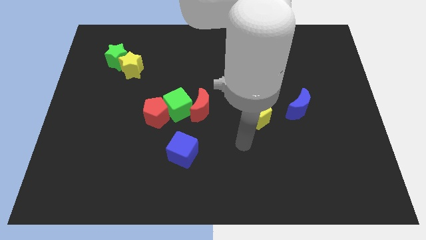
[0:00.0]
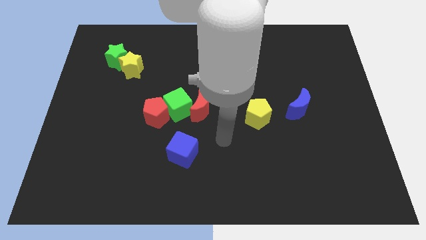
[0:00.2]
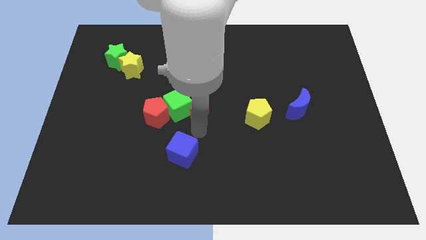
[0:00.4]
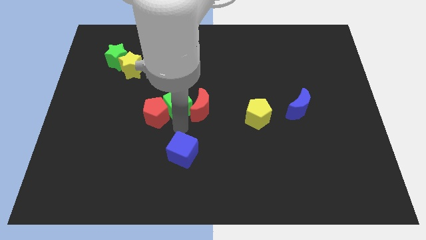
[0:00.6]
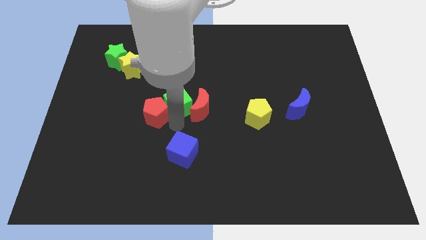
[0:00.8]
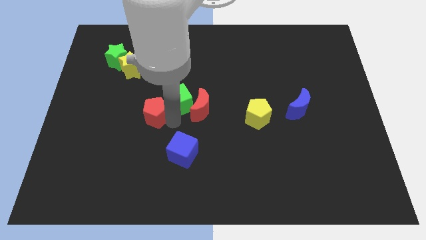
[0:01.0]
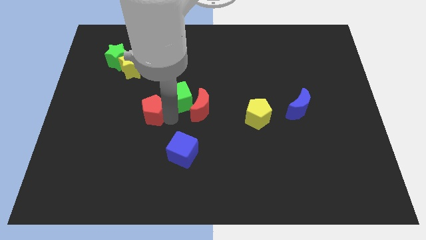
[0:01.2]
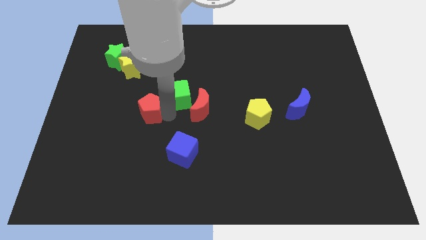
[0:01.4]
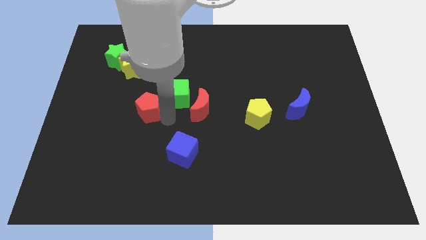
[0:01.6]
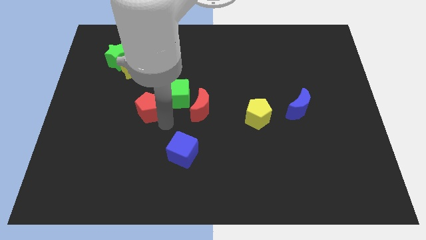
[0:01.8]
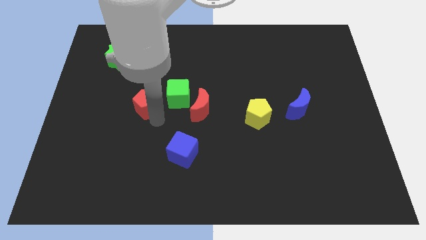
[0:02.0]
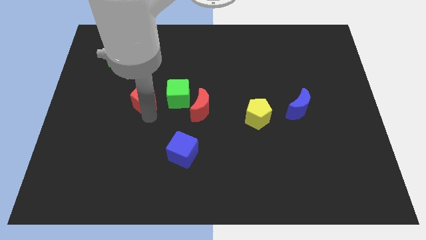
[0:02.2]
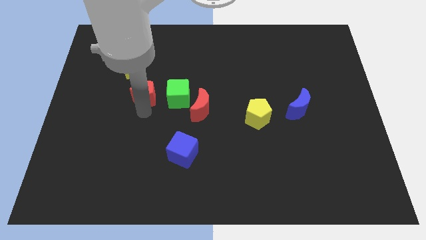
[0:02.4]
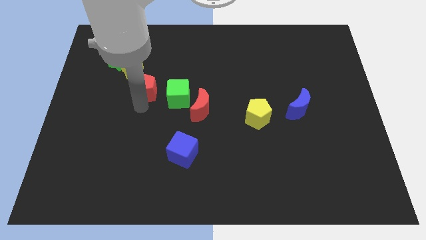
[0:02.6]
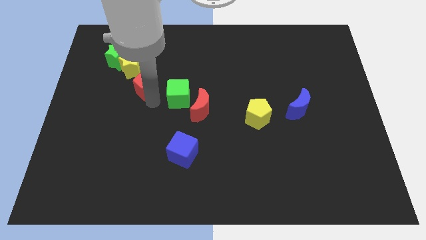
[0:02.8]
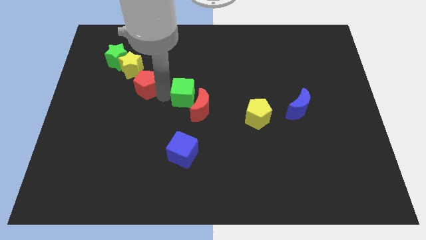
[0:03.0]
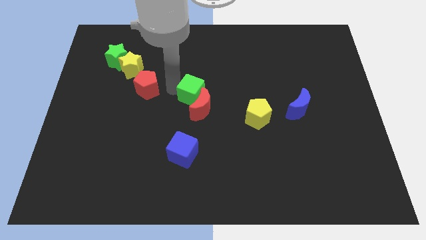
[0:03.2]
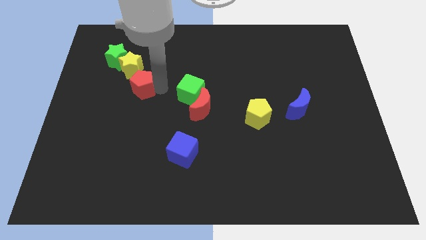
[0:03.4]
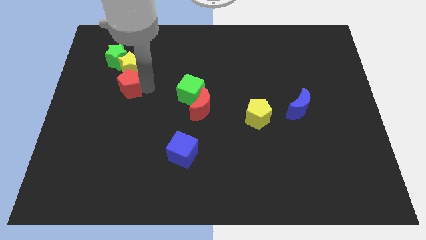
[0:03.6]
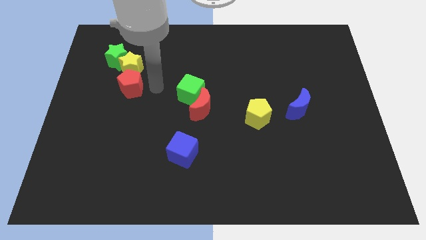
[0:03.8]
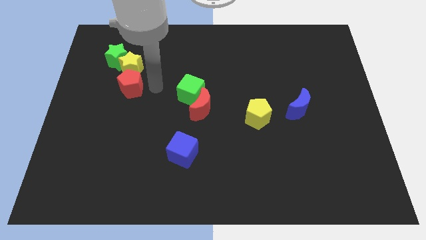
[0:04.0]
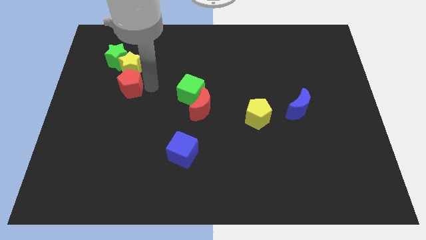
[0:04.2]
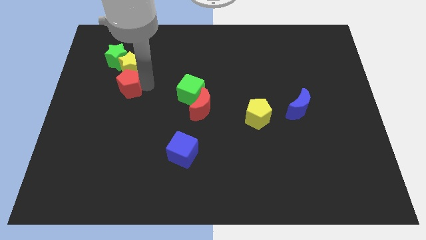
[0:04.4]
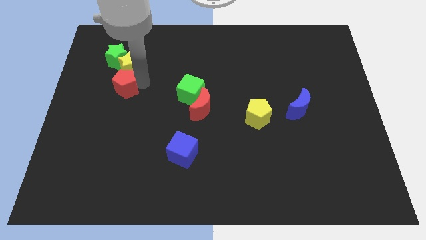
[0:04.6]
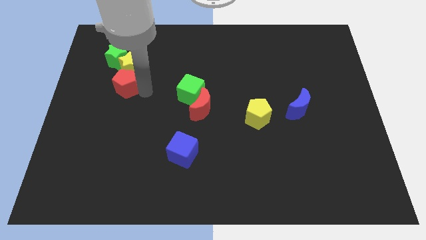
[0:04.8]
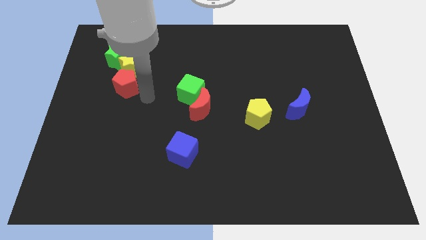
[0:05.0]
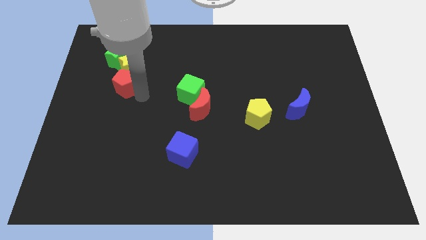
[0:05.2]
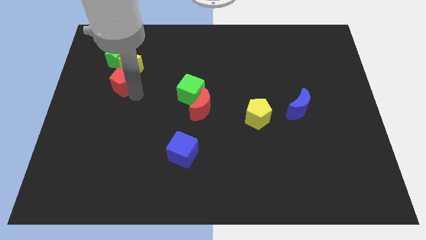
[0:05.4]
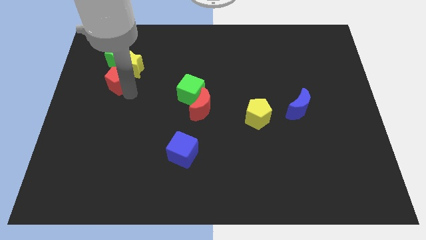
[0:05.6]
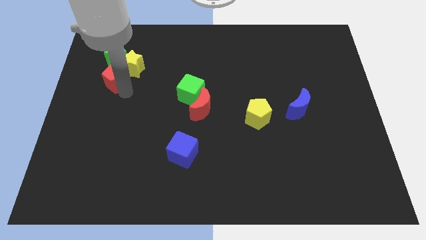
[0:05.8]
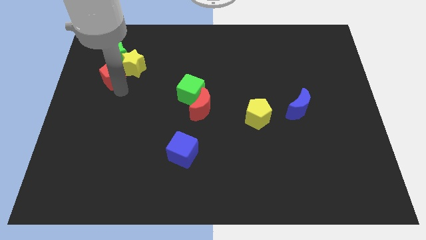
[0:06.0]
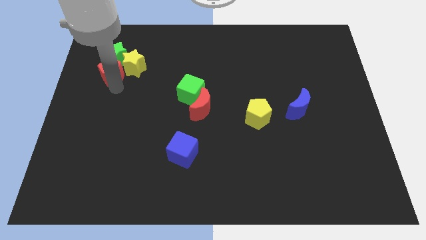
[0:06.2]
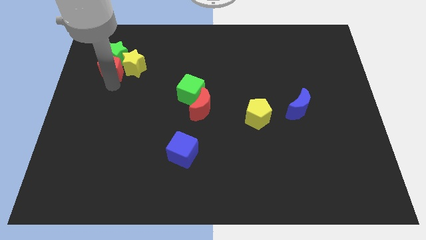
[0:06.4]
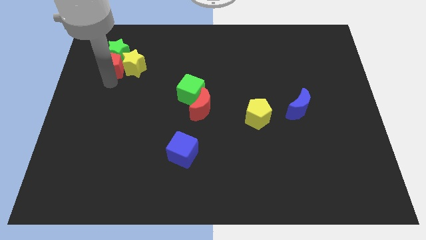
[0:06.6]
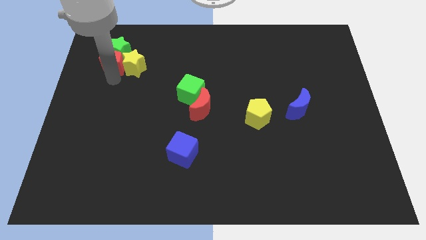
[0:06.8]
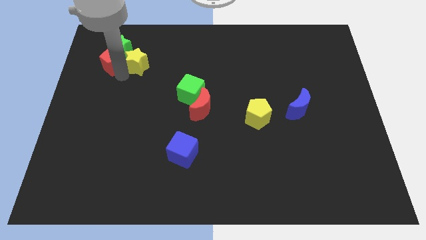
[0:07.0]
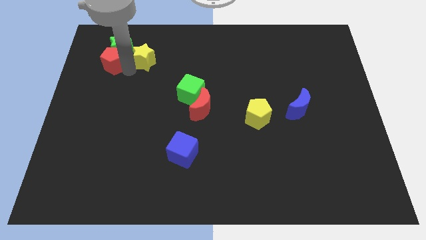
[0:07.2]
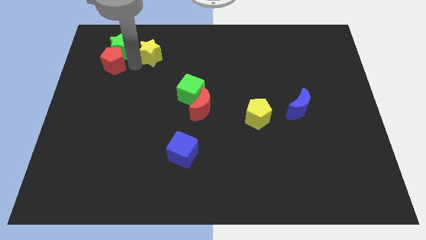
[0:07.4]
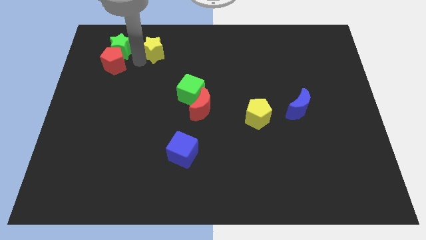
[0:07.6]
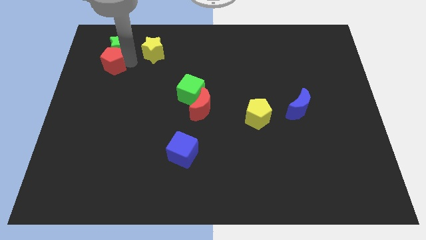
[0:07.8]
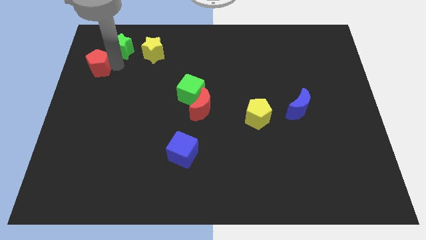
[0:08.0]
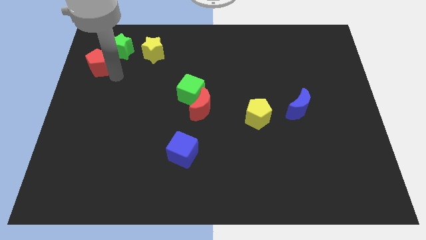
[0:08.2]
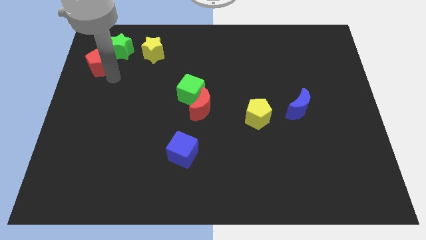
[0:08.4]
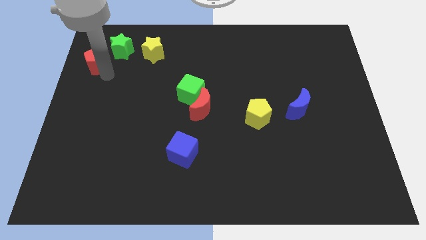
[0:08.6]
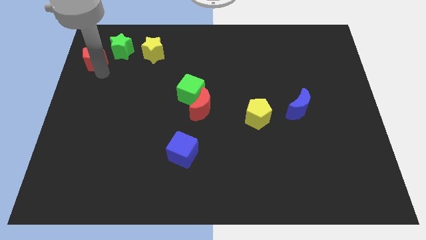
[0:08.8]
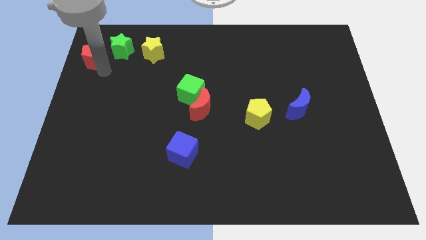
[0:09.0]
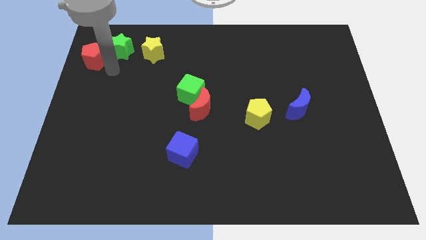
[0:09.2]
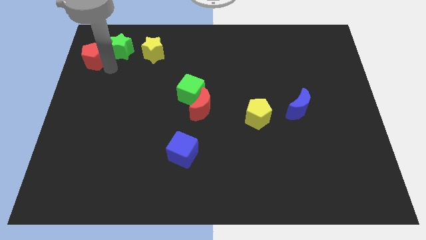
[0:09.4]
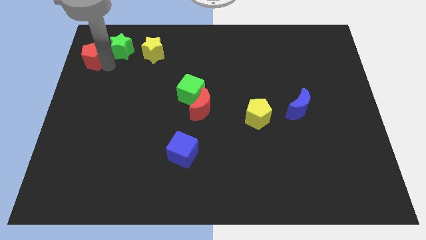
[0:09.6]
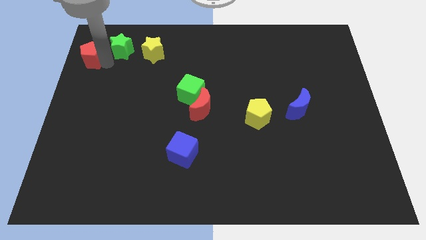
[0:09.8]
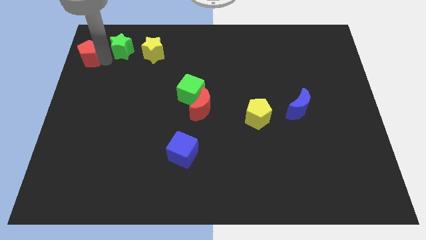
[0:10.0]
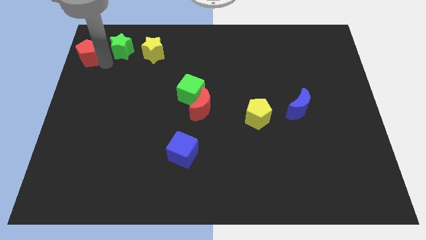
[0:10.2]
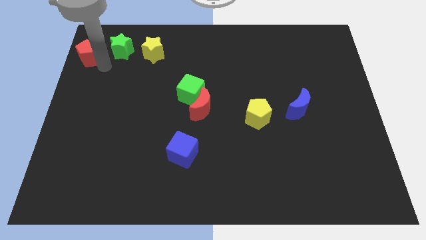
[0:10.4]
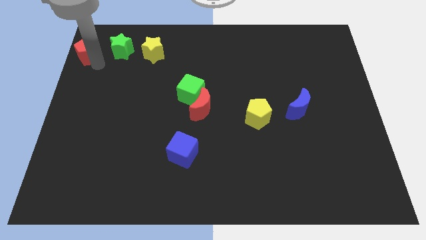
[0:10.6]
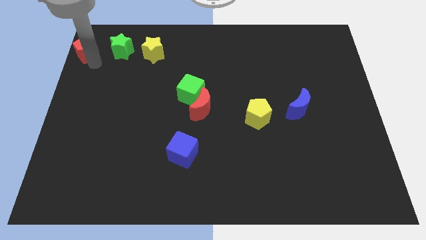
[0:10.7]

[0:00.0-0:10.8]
push the red pentagon to the top left

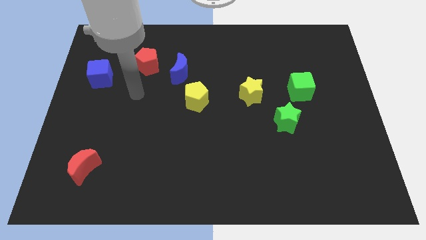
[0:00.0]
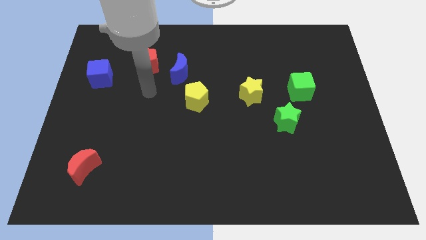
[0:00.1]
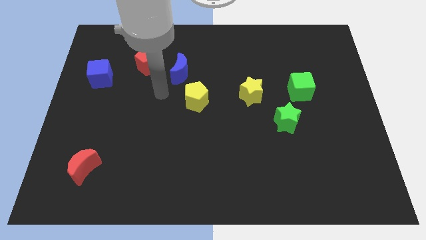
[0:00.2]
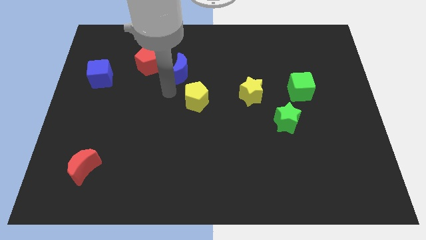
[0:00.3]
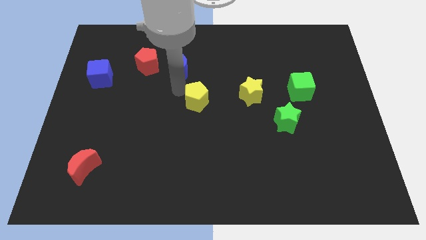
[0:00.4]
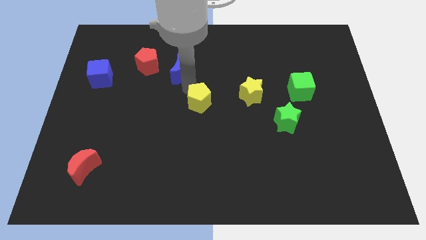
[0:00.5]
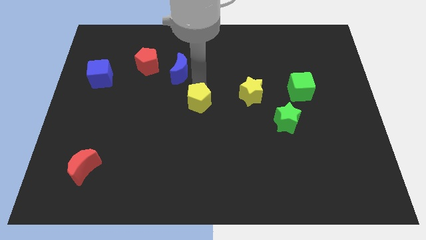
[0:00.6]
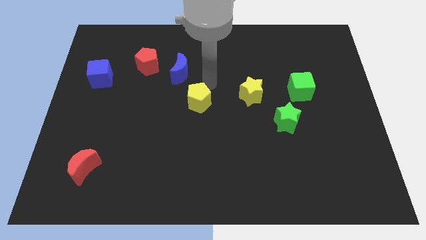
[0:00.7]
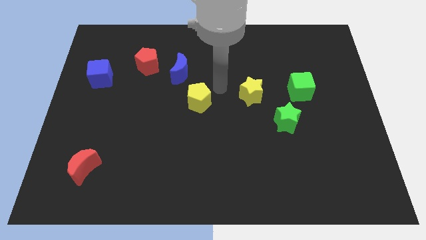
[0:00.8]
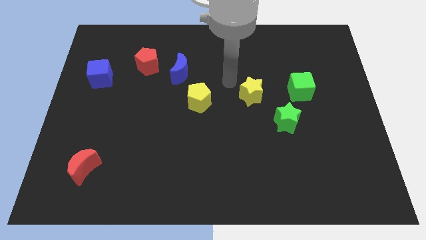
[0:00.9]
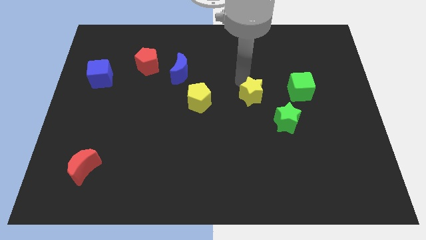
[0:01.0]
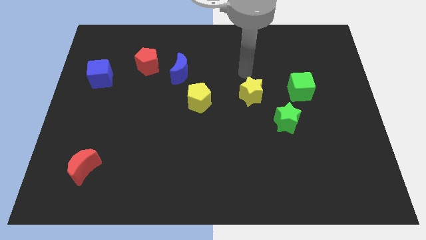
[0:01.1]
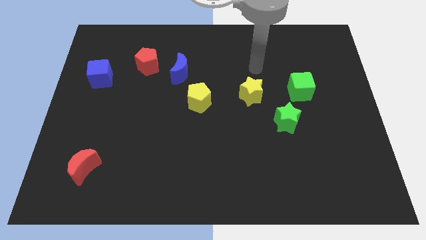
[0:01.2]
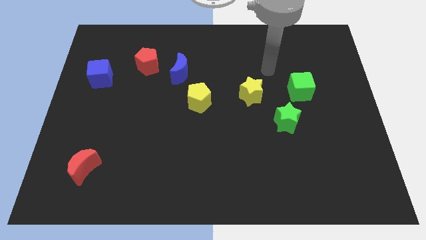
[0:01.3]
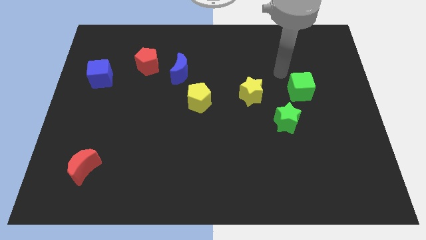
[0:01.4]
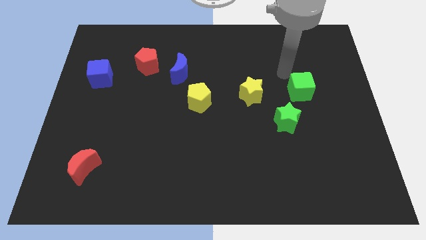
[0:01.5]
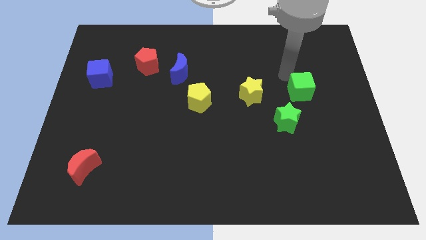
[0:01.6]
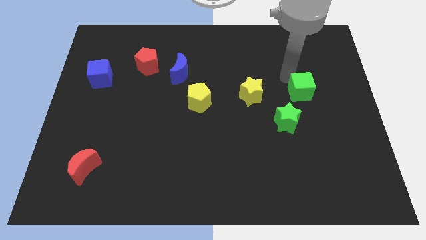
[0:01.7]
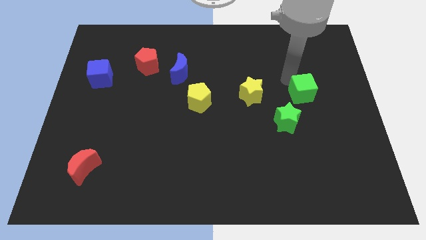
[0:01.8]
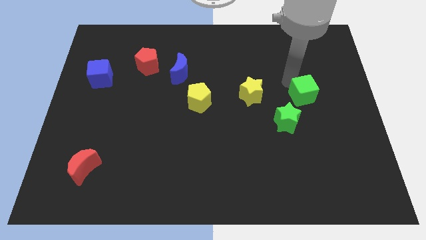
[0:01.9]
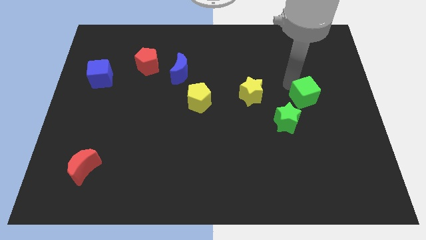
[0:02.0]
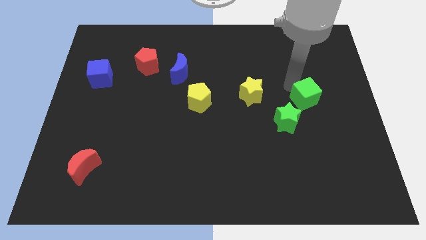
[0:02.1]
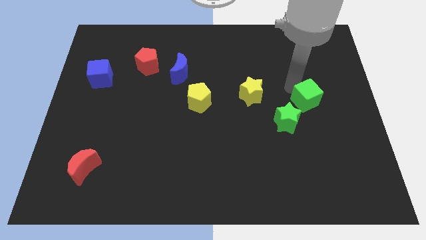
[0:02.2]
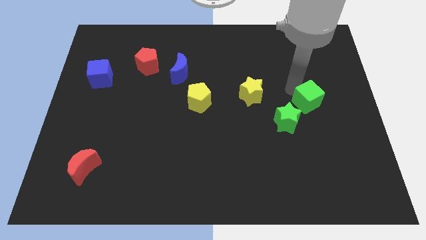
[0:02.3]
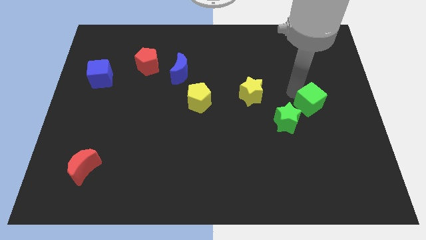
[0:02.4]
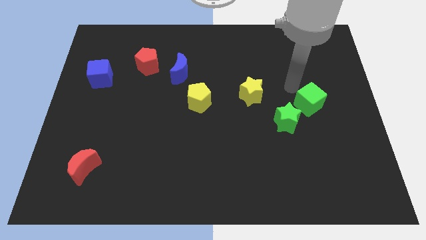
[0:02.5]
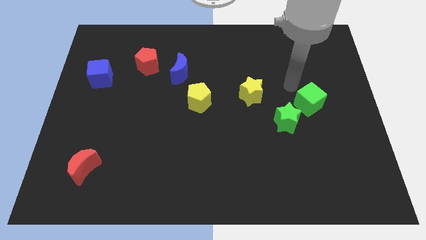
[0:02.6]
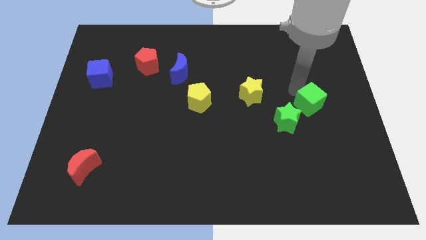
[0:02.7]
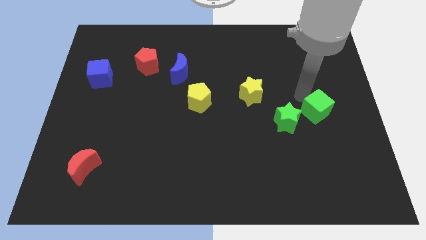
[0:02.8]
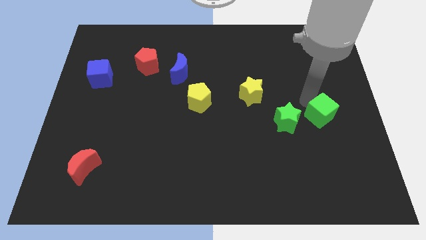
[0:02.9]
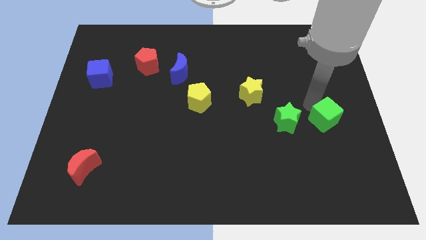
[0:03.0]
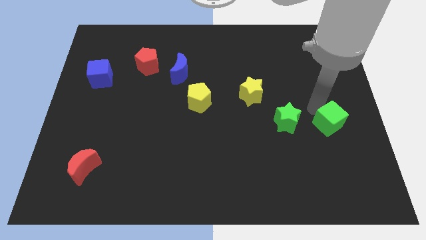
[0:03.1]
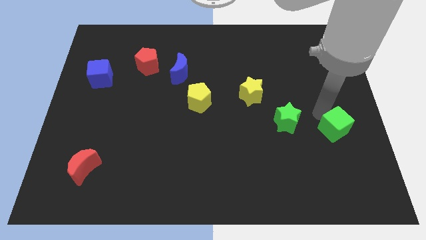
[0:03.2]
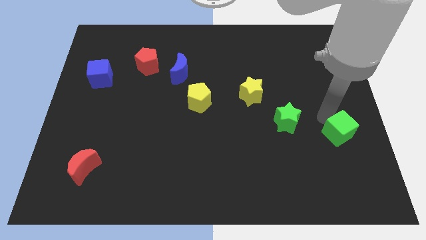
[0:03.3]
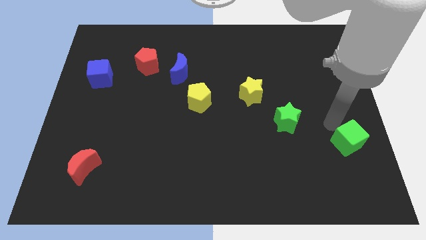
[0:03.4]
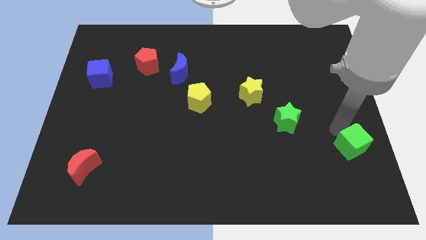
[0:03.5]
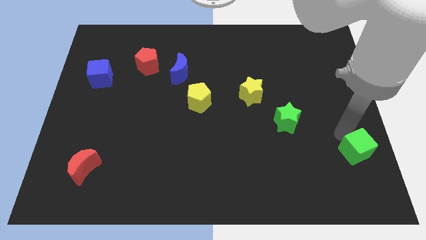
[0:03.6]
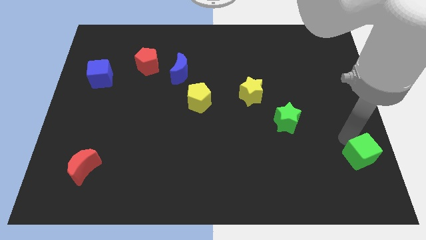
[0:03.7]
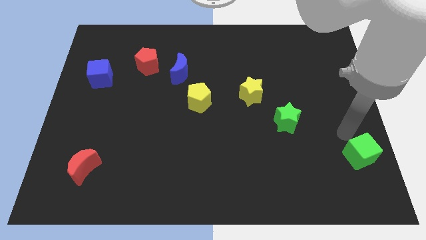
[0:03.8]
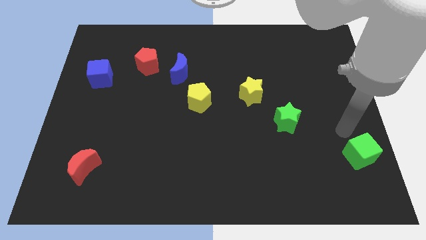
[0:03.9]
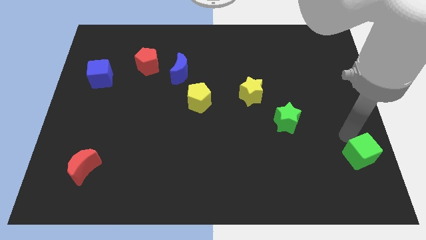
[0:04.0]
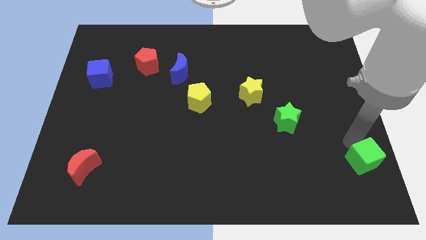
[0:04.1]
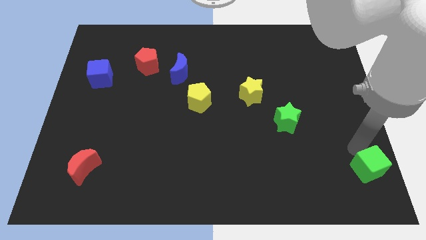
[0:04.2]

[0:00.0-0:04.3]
push the green cube to the bottom right of the board
